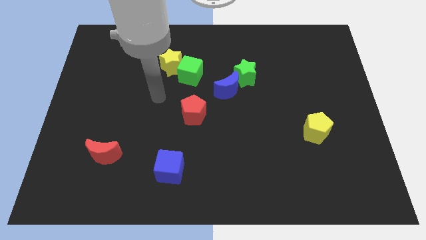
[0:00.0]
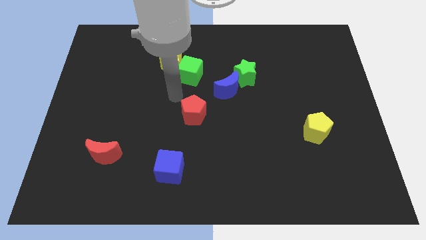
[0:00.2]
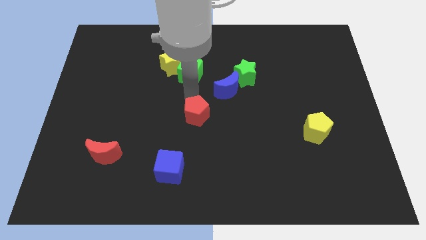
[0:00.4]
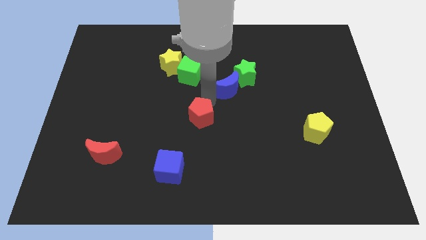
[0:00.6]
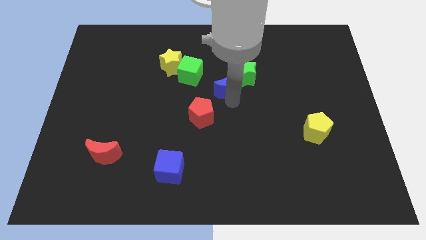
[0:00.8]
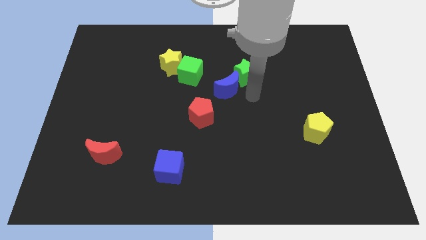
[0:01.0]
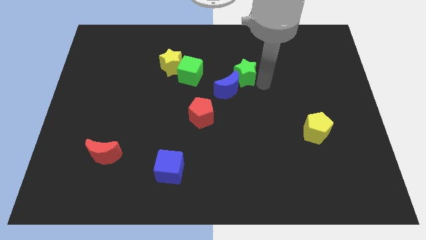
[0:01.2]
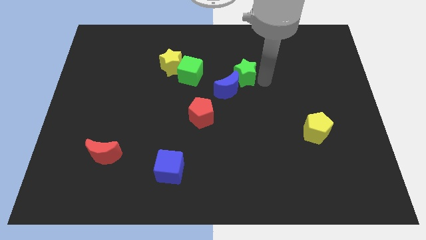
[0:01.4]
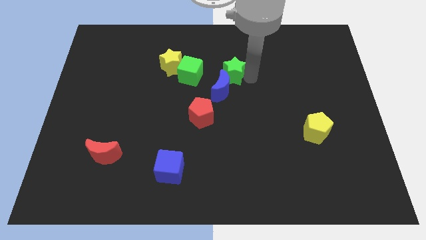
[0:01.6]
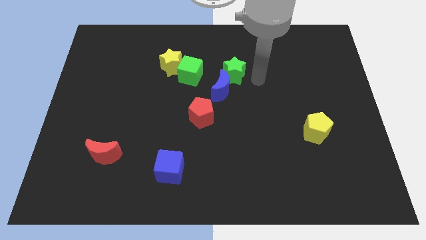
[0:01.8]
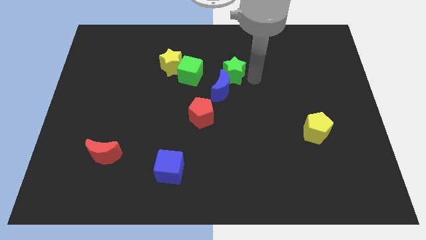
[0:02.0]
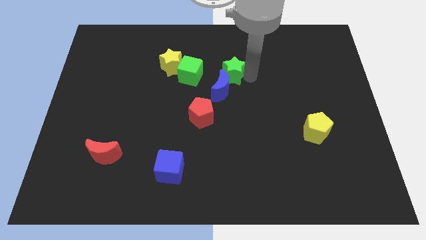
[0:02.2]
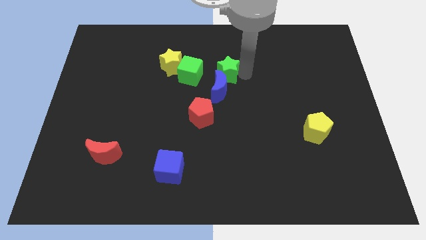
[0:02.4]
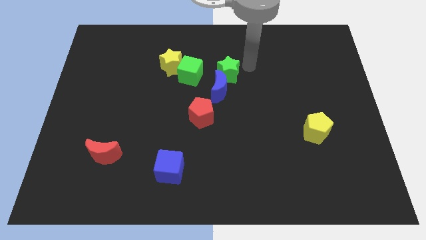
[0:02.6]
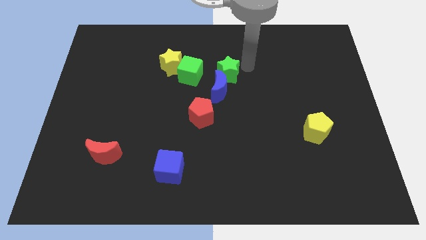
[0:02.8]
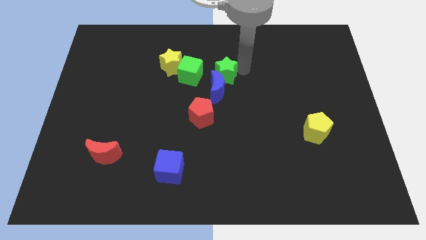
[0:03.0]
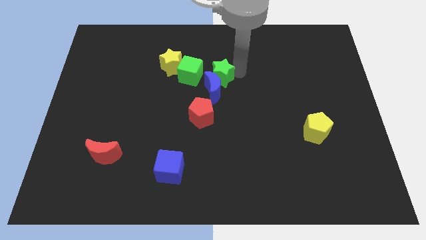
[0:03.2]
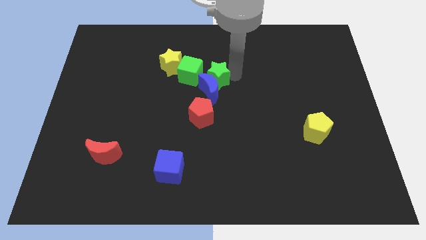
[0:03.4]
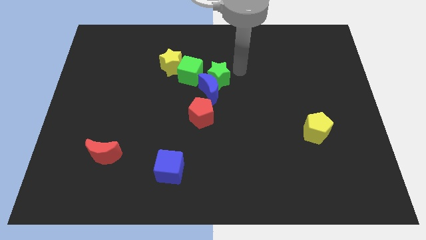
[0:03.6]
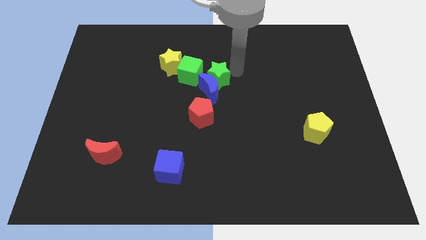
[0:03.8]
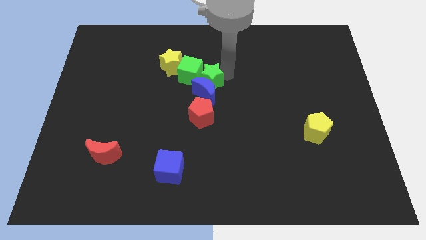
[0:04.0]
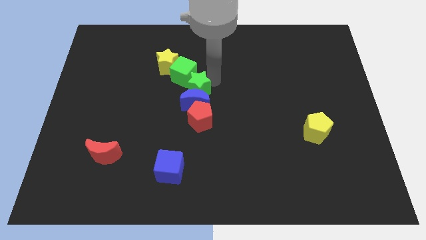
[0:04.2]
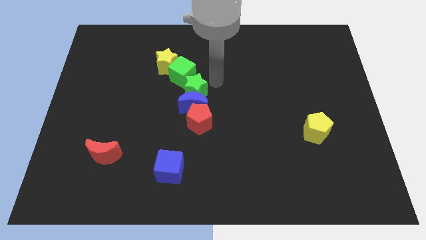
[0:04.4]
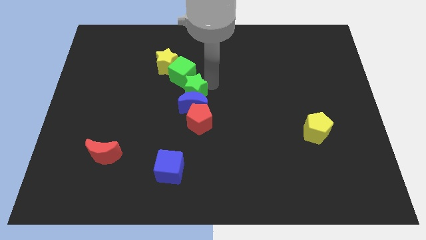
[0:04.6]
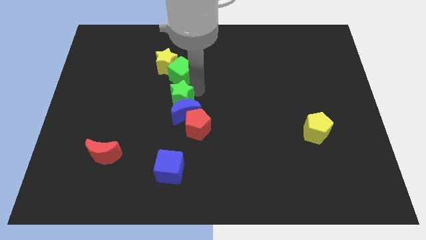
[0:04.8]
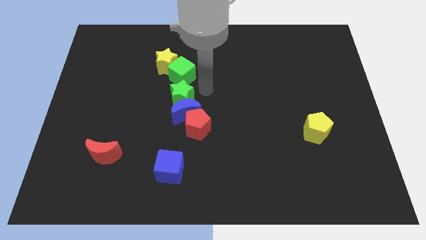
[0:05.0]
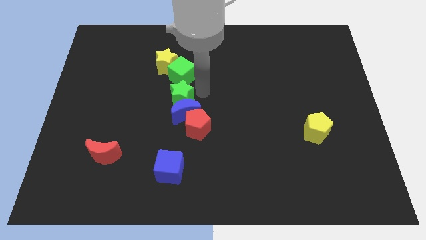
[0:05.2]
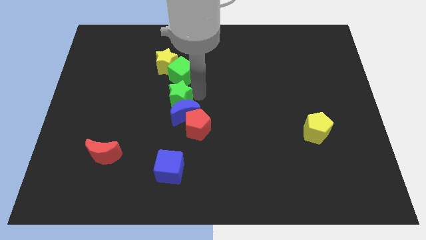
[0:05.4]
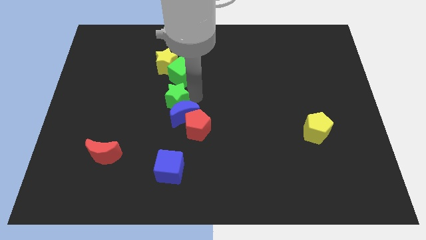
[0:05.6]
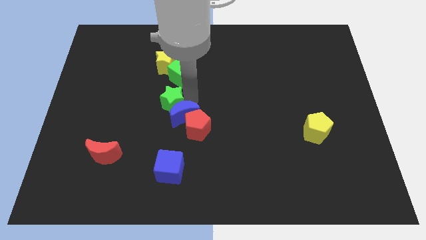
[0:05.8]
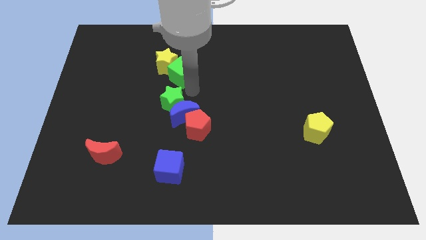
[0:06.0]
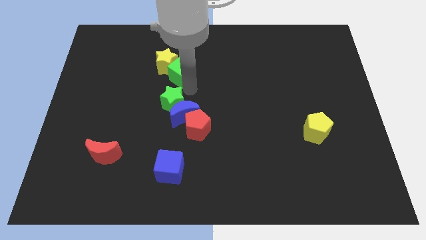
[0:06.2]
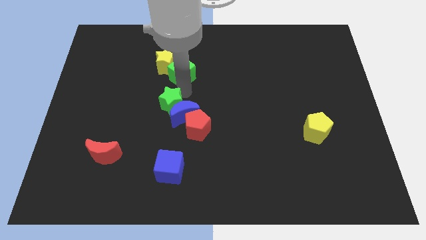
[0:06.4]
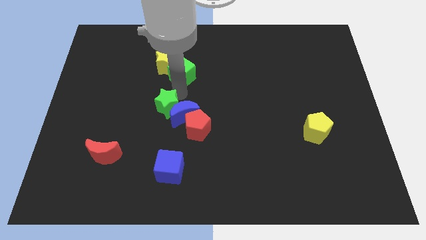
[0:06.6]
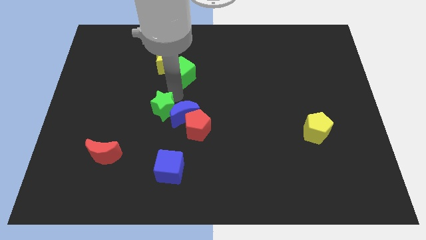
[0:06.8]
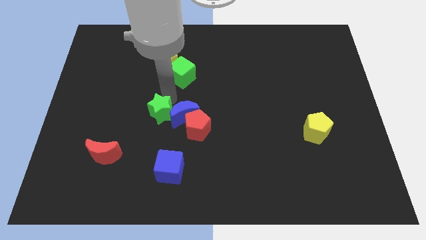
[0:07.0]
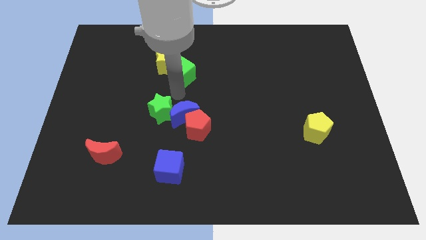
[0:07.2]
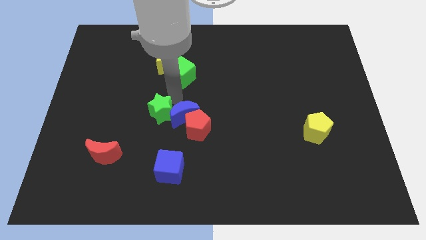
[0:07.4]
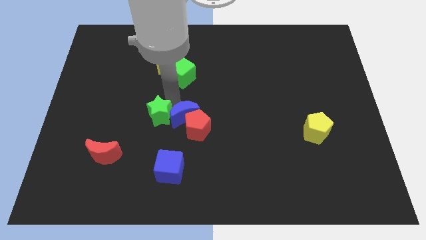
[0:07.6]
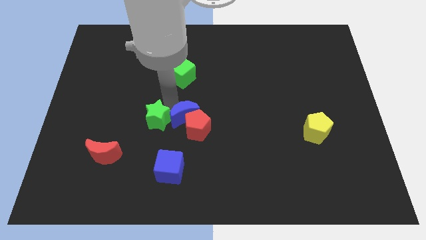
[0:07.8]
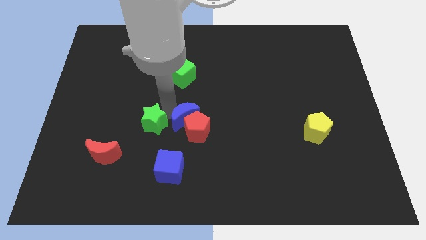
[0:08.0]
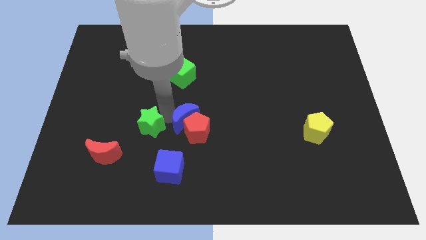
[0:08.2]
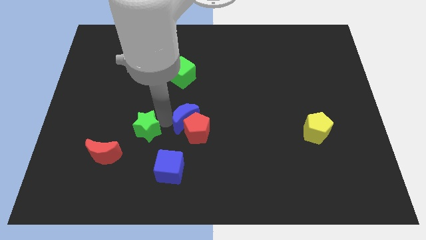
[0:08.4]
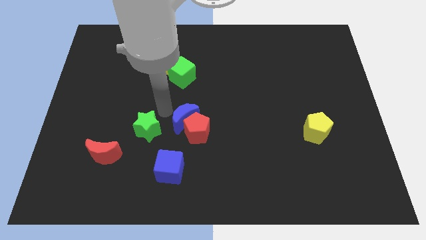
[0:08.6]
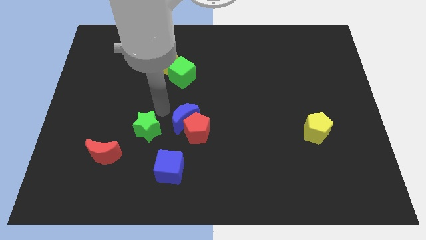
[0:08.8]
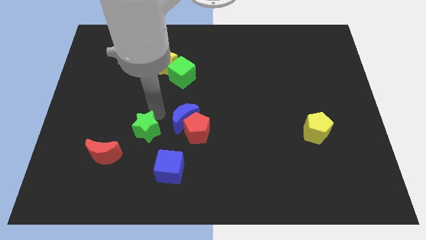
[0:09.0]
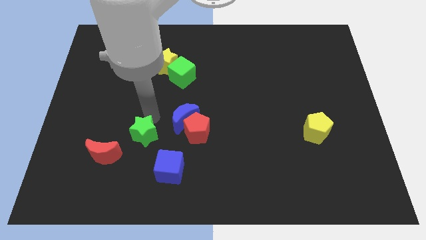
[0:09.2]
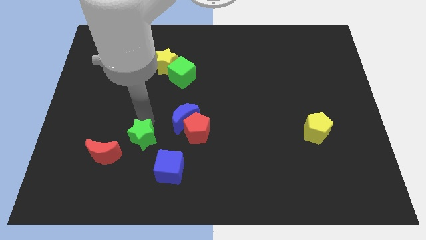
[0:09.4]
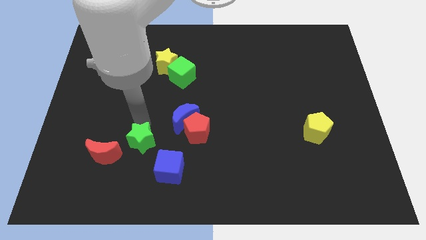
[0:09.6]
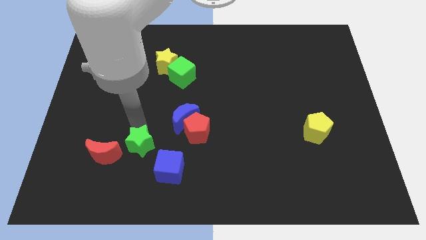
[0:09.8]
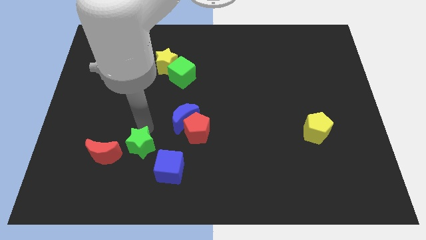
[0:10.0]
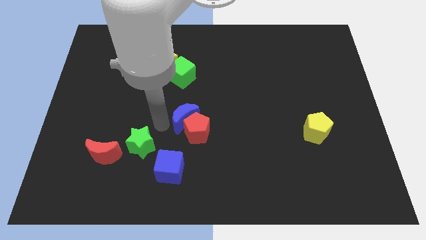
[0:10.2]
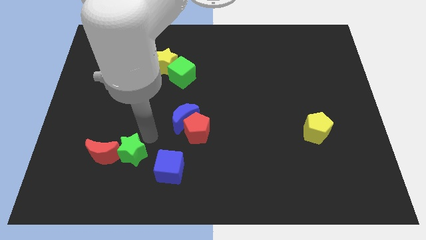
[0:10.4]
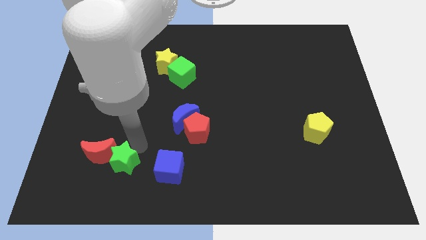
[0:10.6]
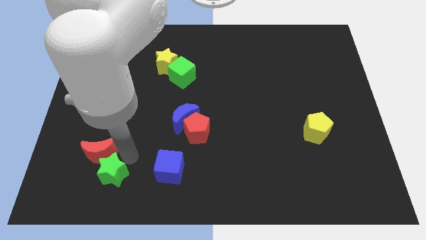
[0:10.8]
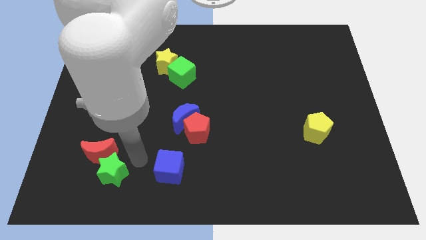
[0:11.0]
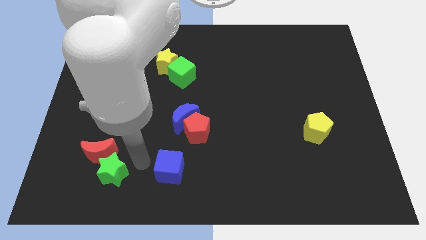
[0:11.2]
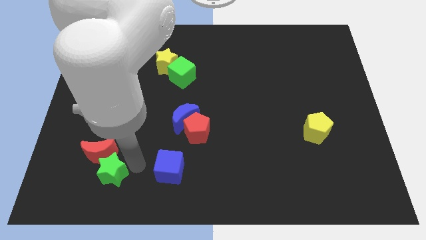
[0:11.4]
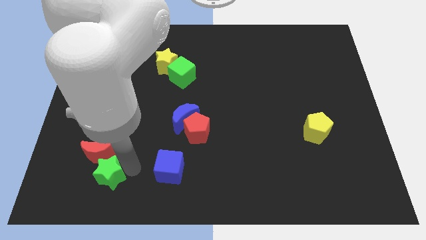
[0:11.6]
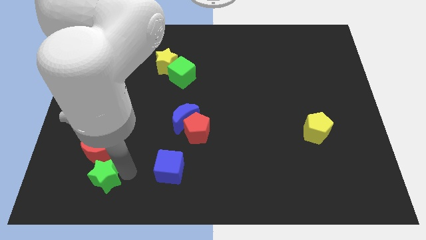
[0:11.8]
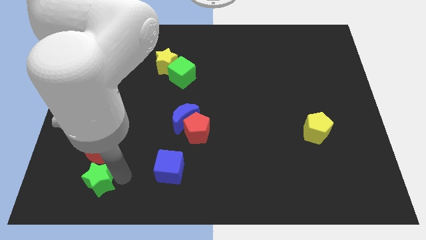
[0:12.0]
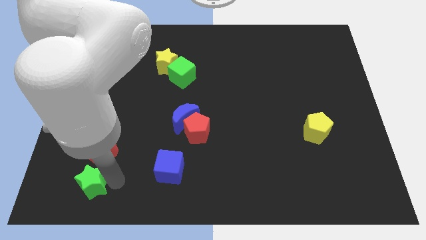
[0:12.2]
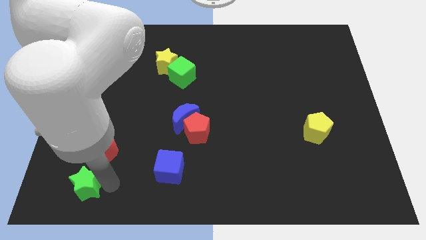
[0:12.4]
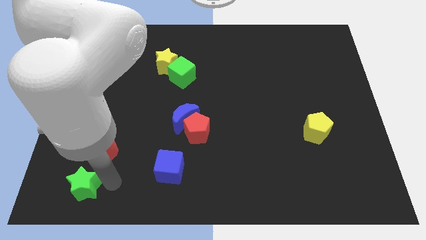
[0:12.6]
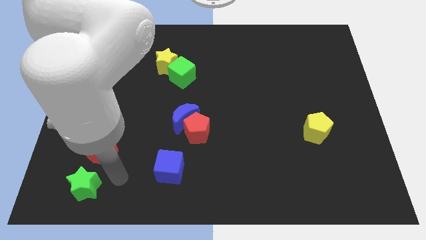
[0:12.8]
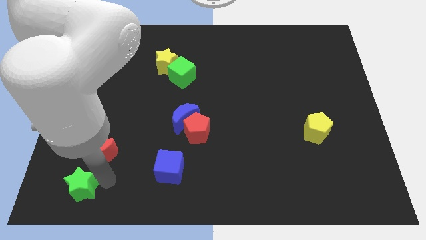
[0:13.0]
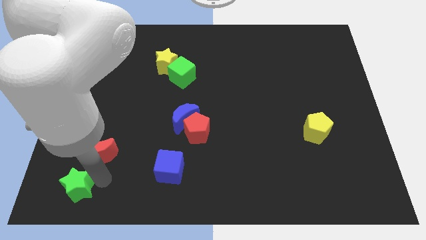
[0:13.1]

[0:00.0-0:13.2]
put the green star to the bottom left corner

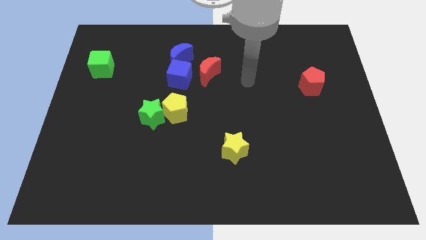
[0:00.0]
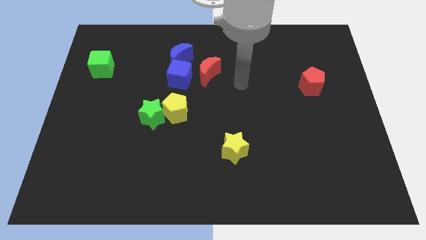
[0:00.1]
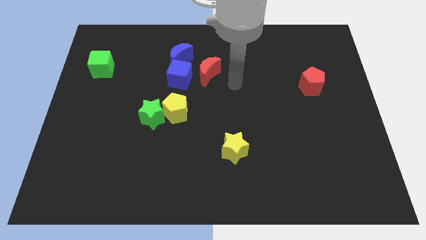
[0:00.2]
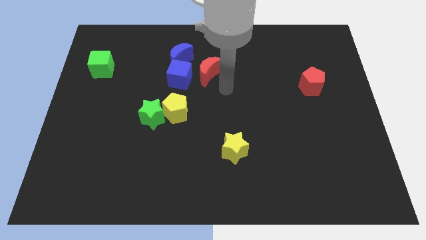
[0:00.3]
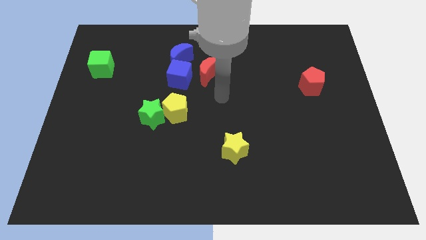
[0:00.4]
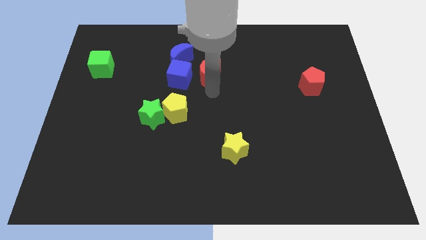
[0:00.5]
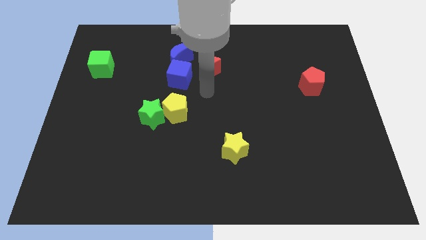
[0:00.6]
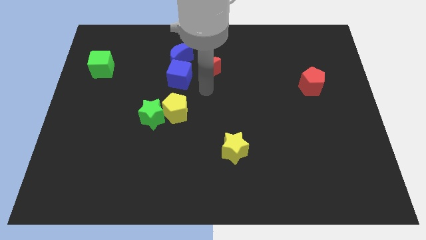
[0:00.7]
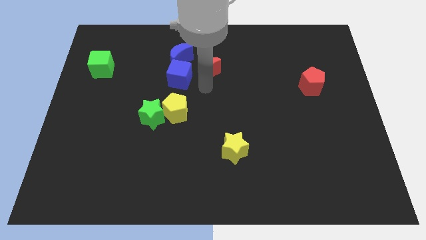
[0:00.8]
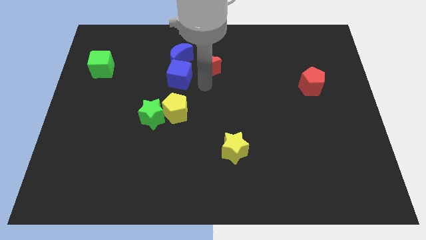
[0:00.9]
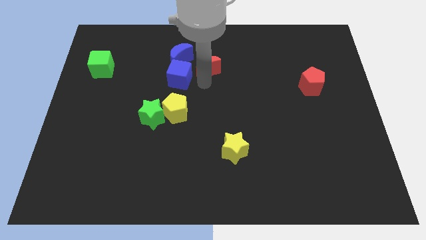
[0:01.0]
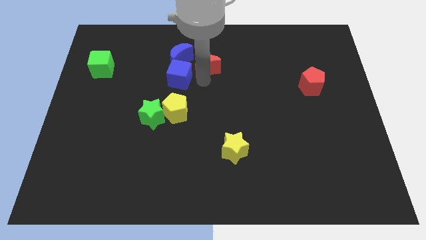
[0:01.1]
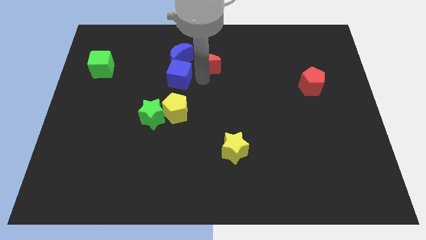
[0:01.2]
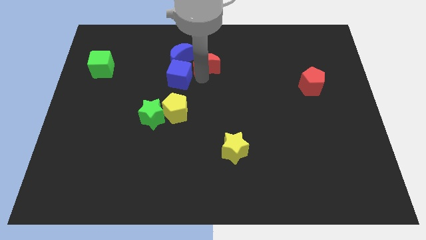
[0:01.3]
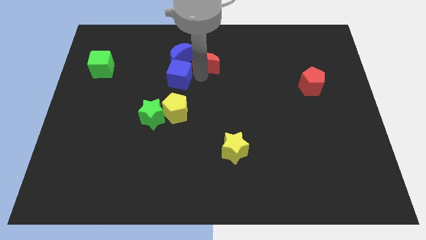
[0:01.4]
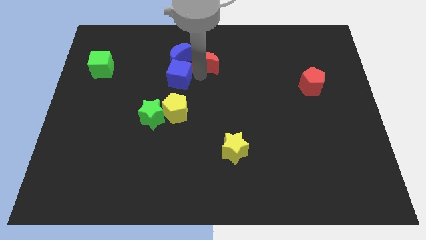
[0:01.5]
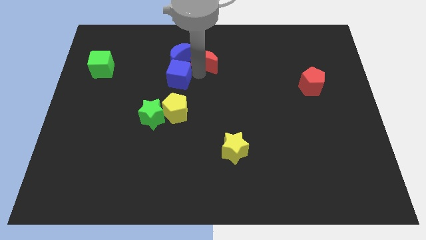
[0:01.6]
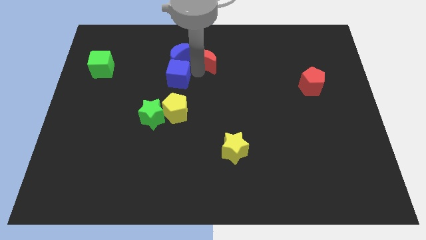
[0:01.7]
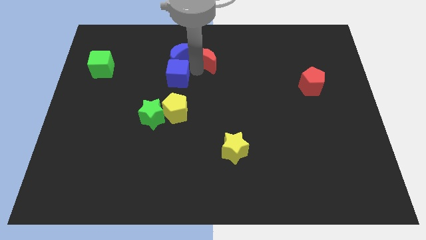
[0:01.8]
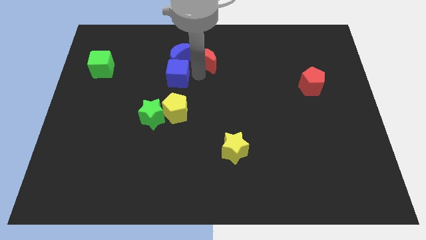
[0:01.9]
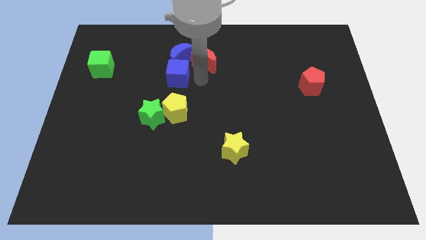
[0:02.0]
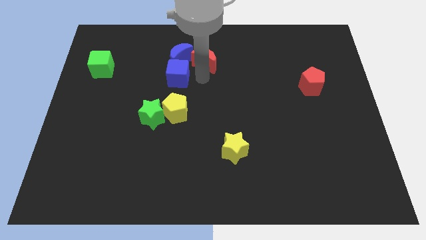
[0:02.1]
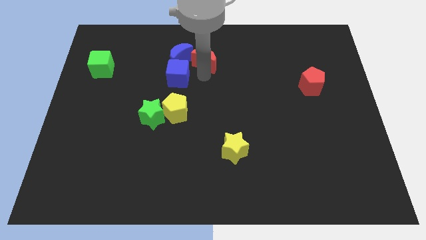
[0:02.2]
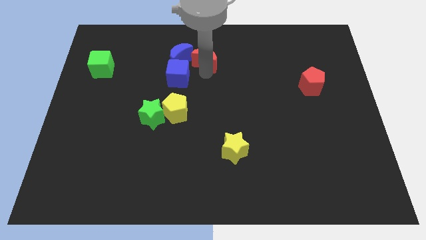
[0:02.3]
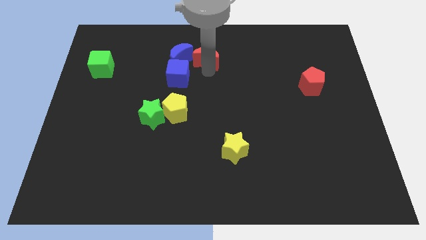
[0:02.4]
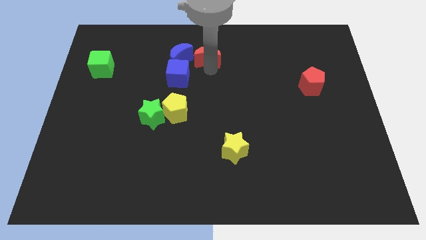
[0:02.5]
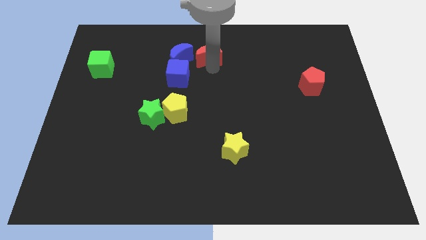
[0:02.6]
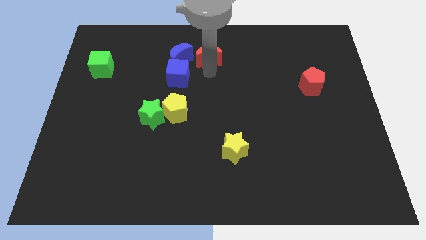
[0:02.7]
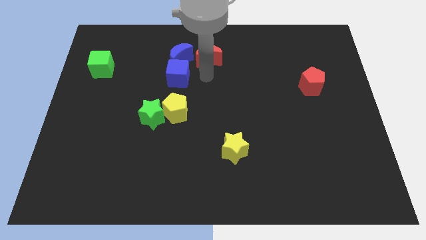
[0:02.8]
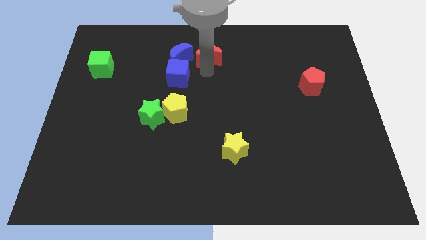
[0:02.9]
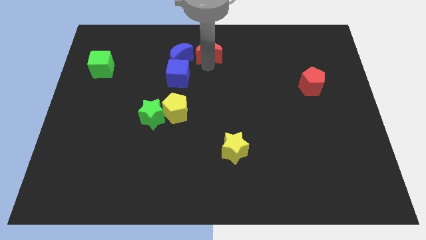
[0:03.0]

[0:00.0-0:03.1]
move the red moon to the towards your base
